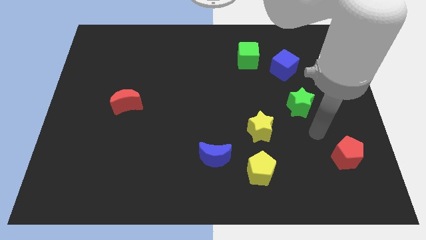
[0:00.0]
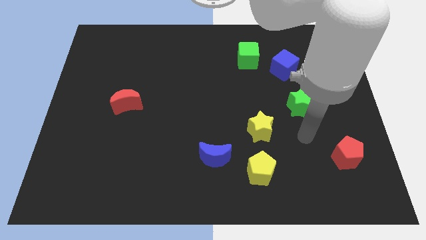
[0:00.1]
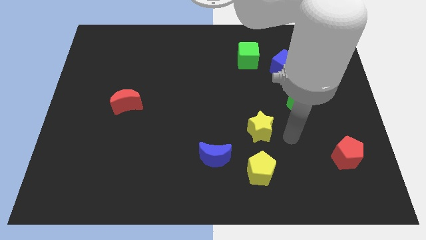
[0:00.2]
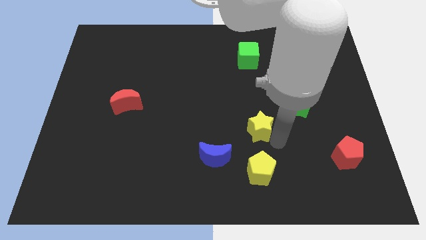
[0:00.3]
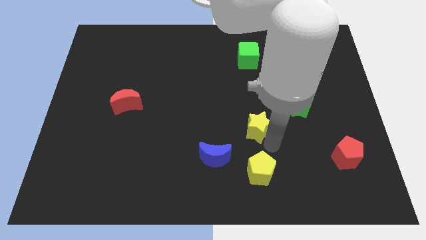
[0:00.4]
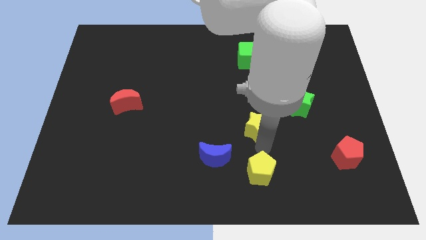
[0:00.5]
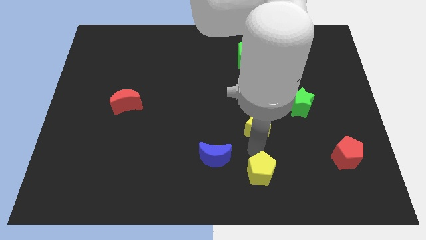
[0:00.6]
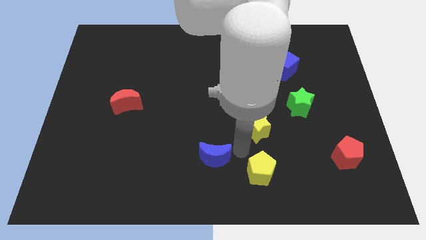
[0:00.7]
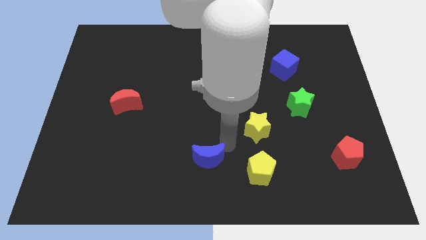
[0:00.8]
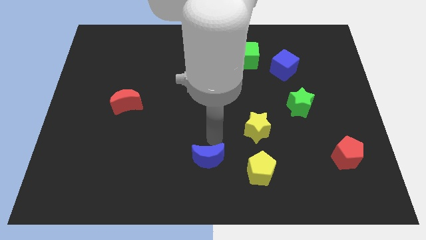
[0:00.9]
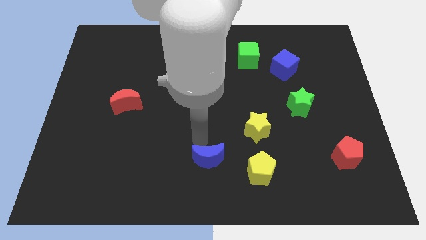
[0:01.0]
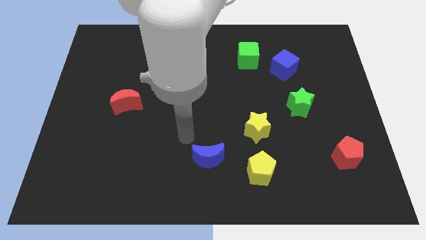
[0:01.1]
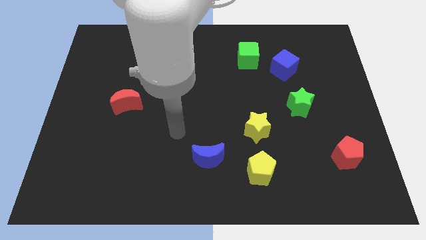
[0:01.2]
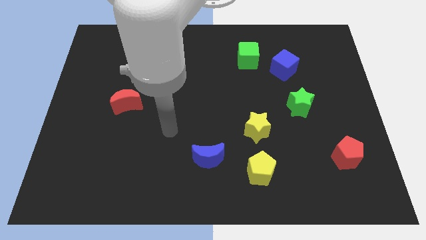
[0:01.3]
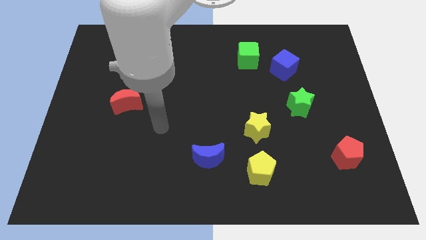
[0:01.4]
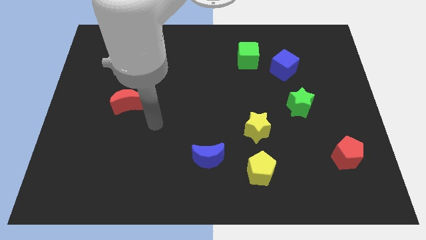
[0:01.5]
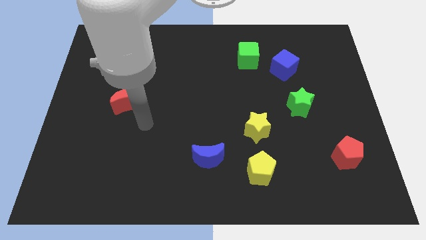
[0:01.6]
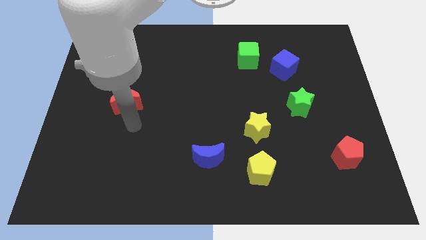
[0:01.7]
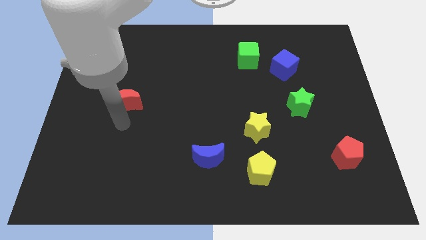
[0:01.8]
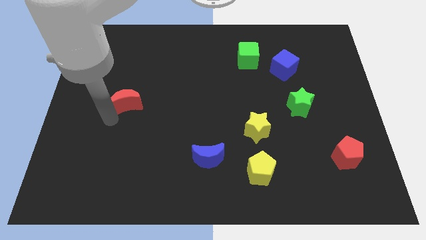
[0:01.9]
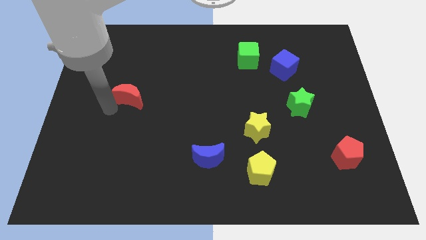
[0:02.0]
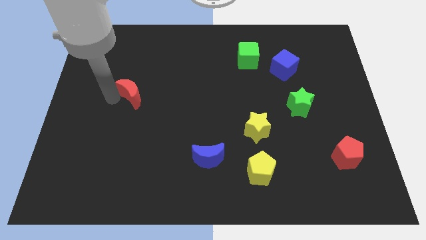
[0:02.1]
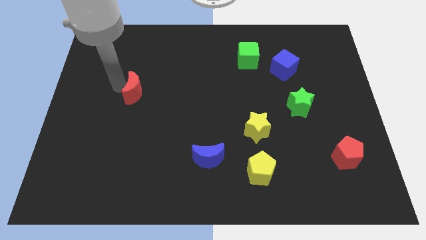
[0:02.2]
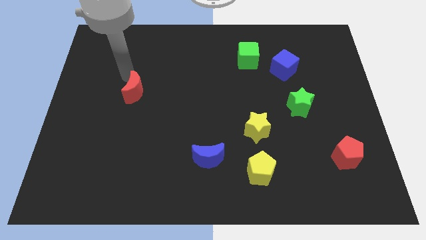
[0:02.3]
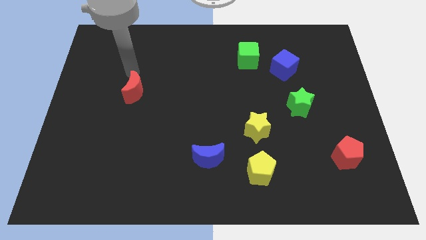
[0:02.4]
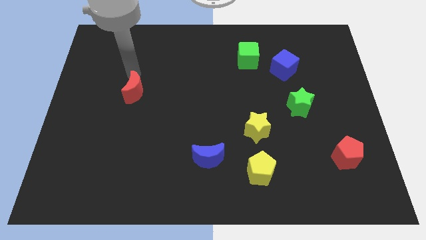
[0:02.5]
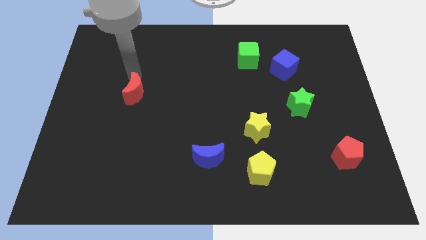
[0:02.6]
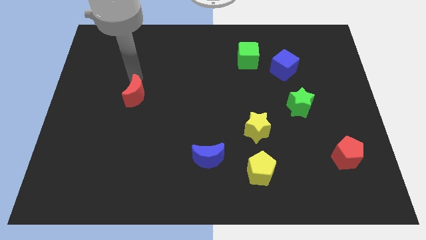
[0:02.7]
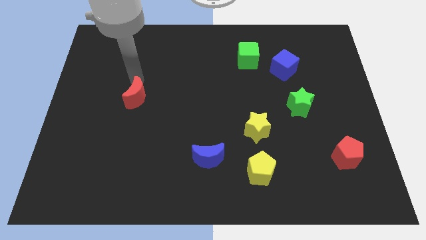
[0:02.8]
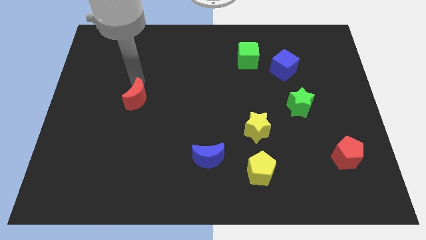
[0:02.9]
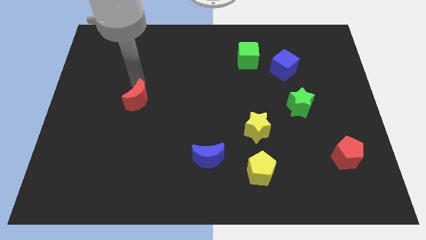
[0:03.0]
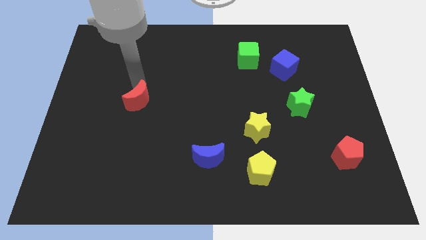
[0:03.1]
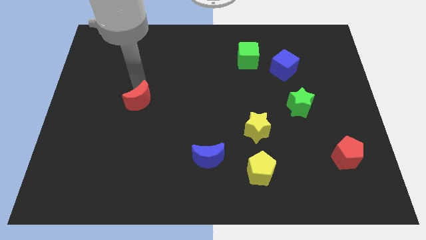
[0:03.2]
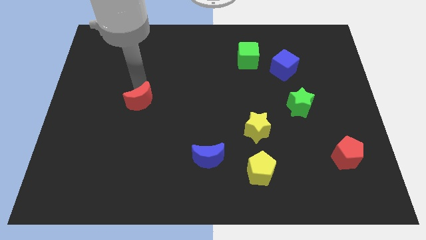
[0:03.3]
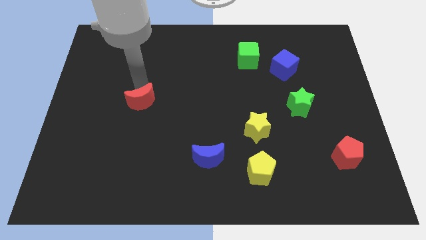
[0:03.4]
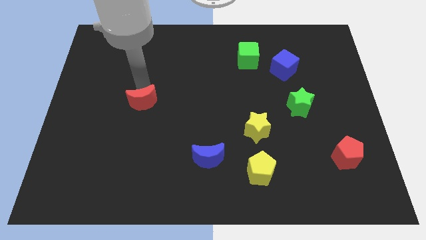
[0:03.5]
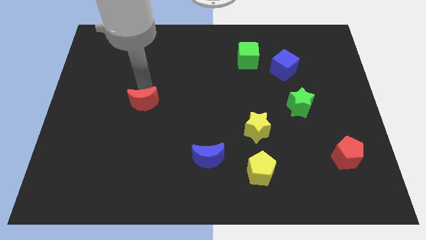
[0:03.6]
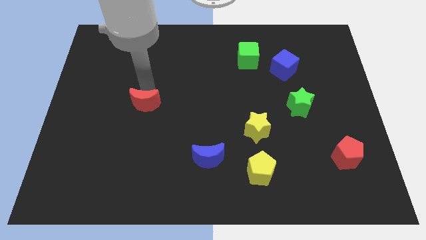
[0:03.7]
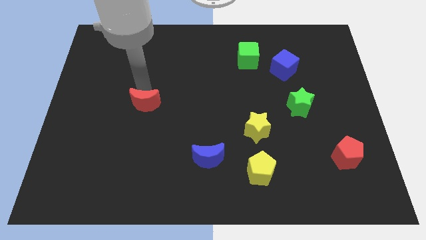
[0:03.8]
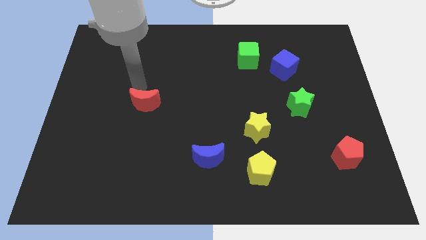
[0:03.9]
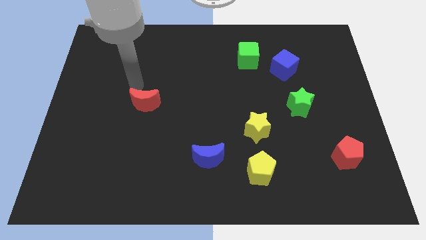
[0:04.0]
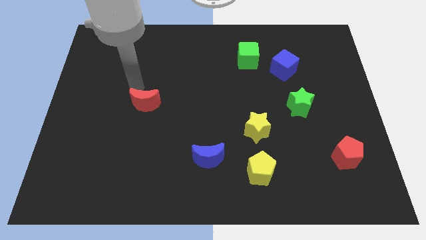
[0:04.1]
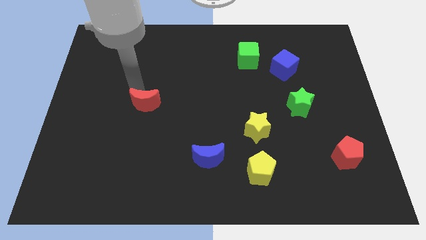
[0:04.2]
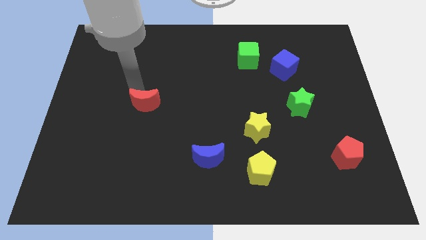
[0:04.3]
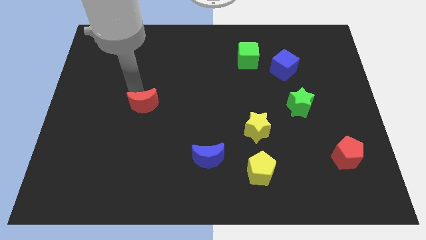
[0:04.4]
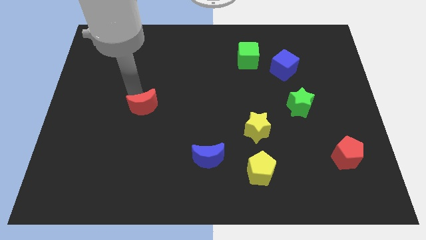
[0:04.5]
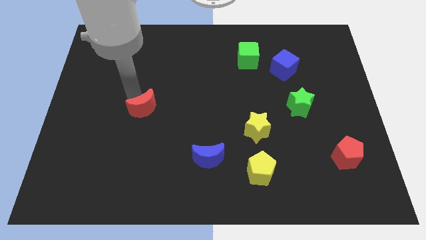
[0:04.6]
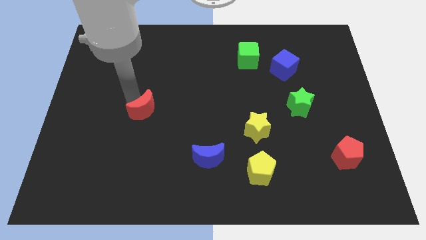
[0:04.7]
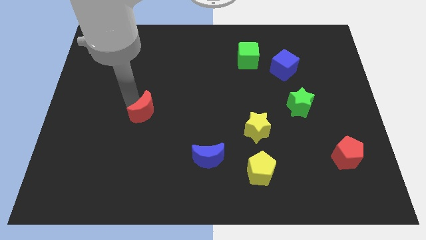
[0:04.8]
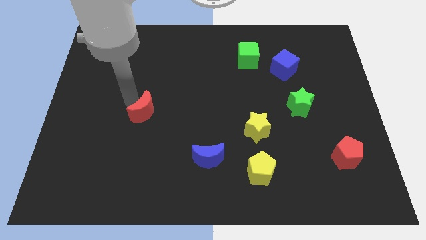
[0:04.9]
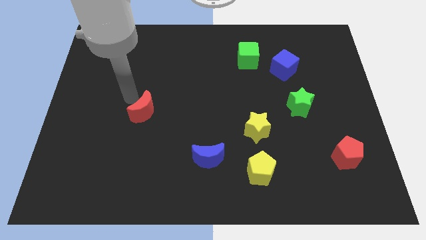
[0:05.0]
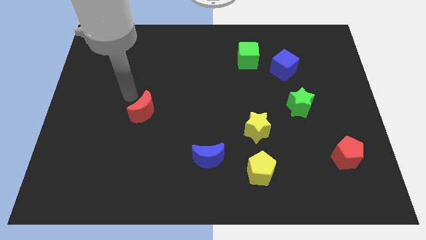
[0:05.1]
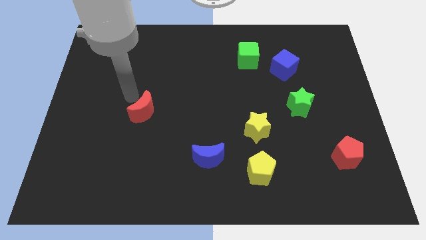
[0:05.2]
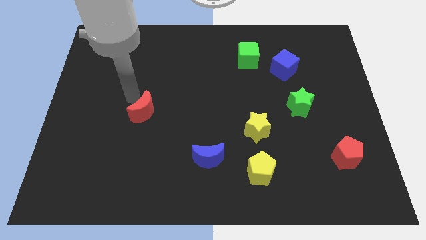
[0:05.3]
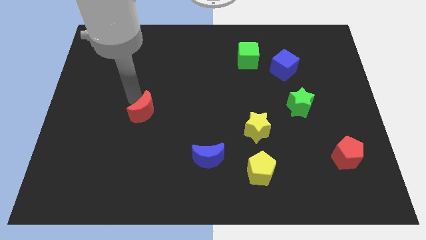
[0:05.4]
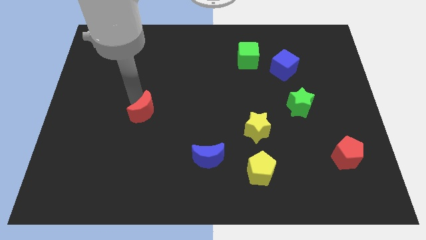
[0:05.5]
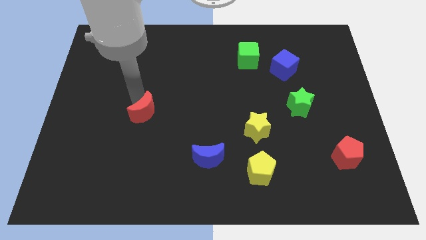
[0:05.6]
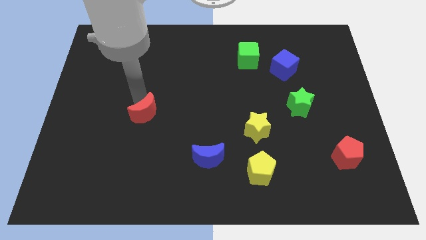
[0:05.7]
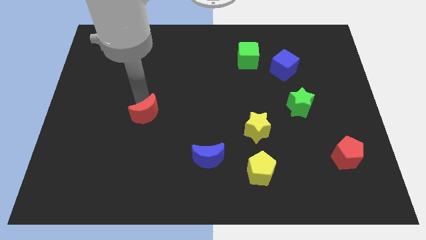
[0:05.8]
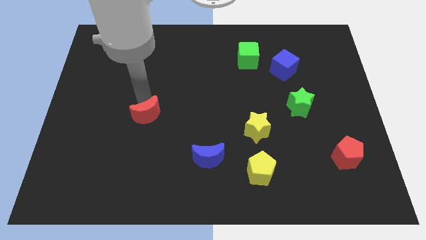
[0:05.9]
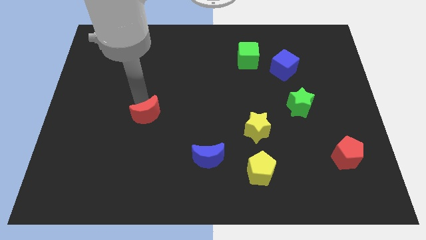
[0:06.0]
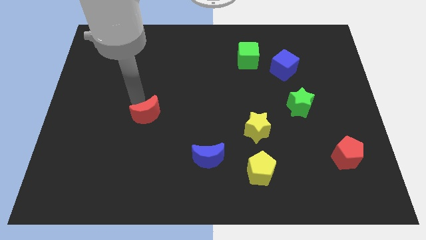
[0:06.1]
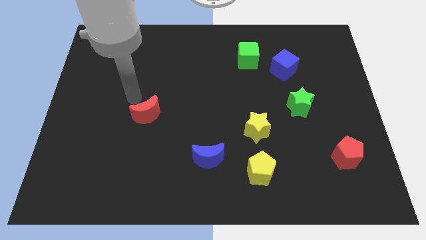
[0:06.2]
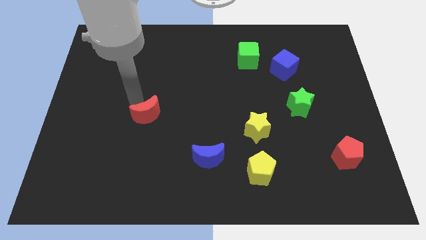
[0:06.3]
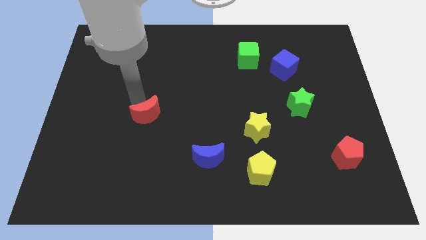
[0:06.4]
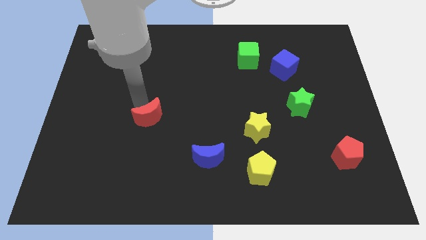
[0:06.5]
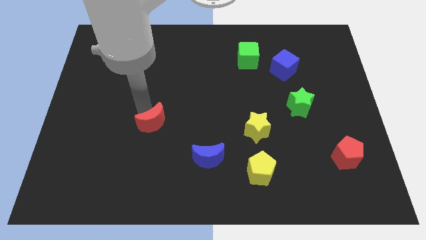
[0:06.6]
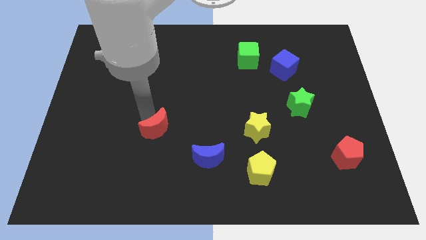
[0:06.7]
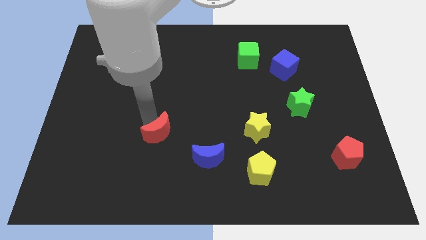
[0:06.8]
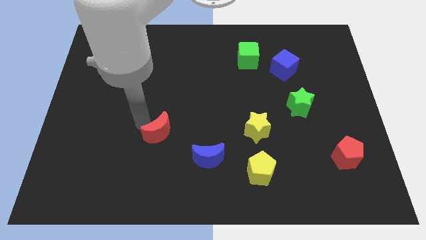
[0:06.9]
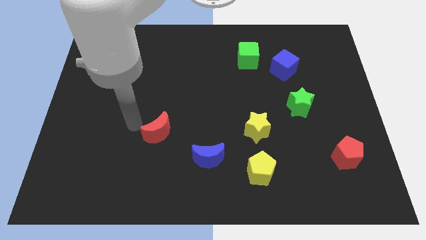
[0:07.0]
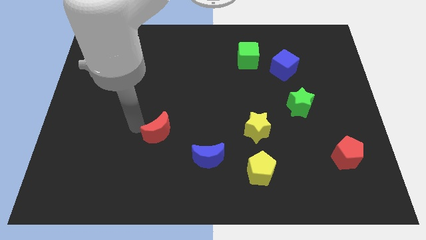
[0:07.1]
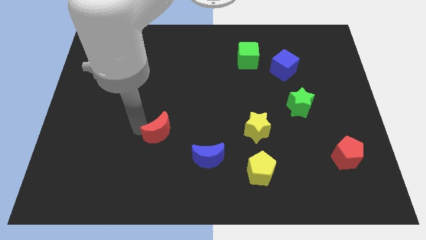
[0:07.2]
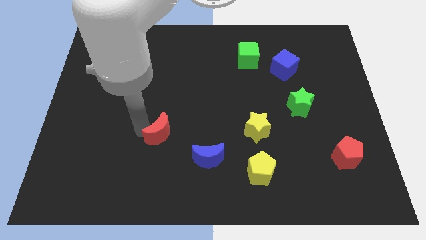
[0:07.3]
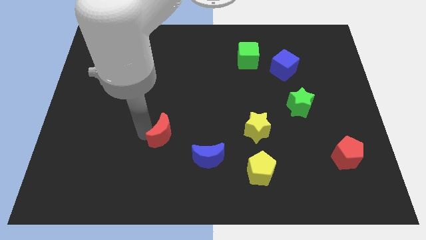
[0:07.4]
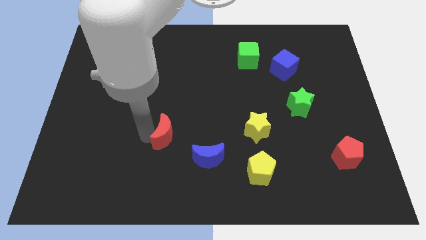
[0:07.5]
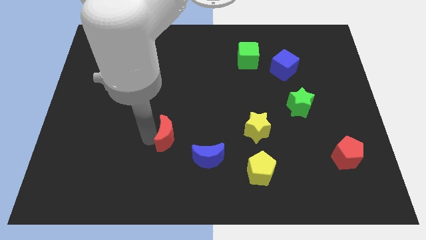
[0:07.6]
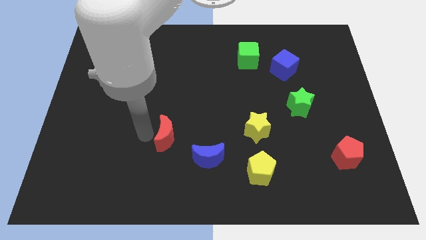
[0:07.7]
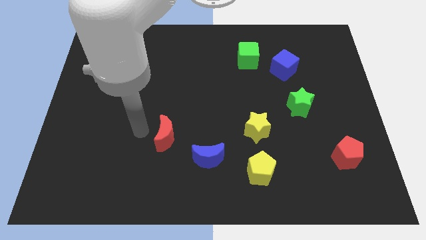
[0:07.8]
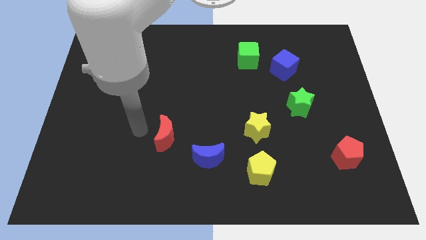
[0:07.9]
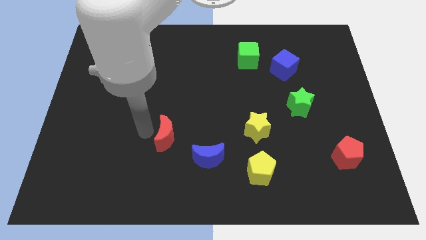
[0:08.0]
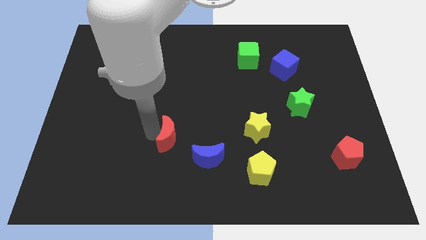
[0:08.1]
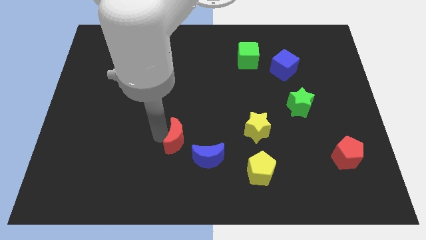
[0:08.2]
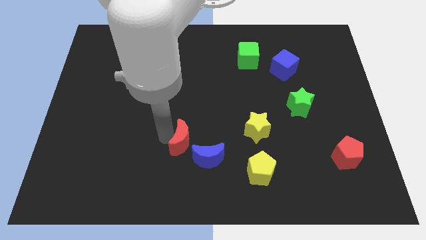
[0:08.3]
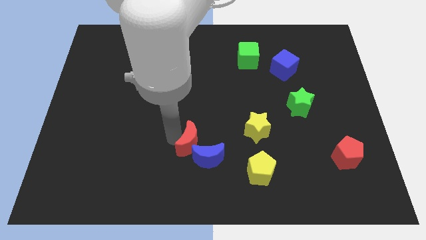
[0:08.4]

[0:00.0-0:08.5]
push the red moon towards the blue moon
